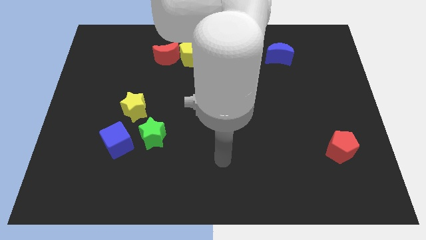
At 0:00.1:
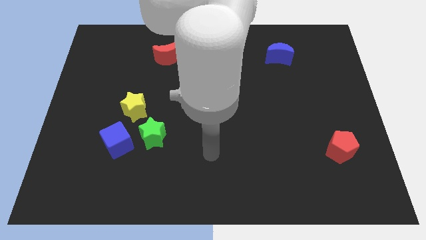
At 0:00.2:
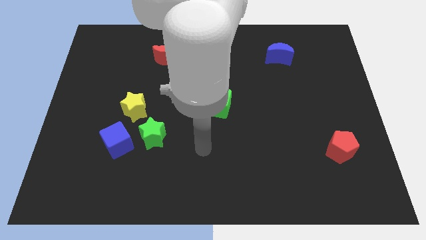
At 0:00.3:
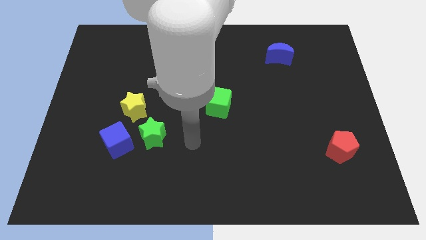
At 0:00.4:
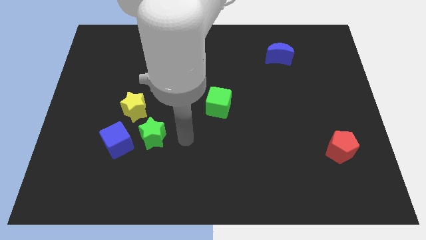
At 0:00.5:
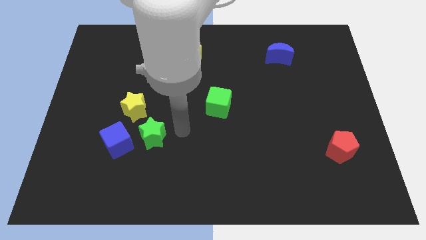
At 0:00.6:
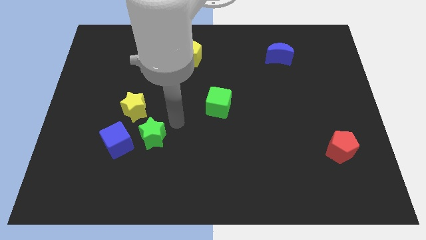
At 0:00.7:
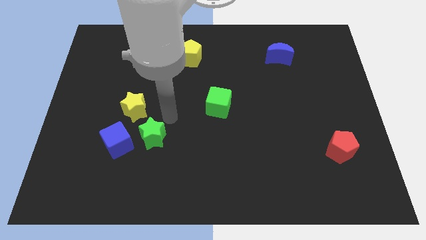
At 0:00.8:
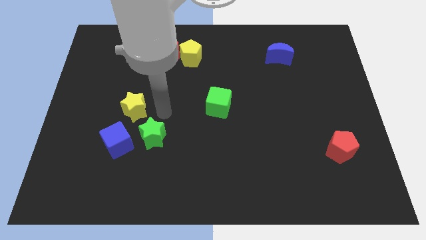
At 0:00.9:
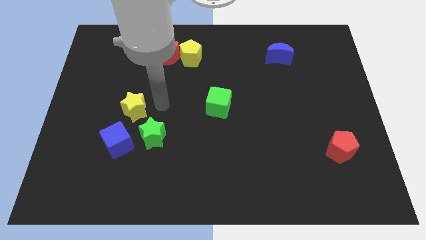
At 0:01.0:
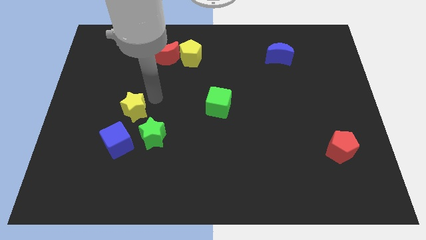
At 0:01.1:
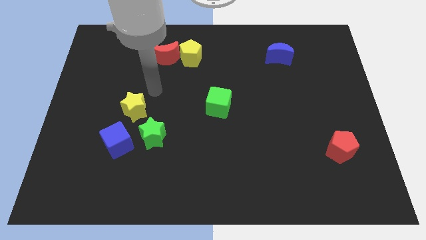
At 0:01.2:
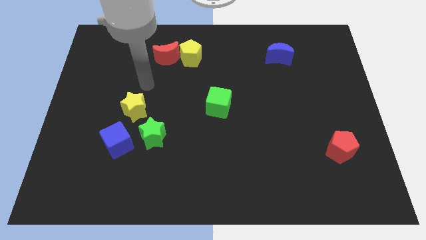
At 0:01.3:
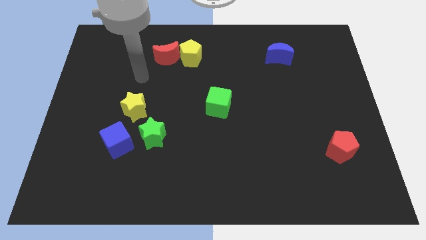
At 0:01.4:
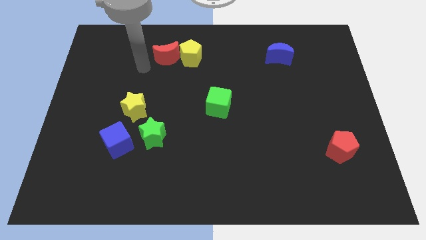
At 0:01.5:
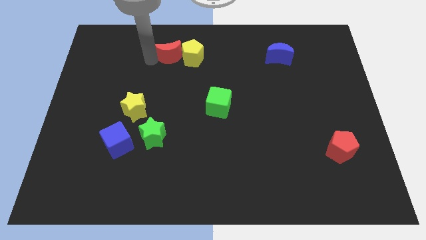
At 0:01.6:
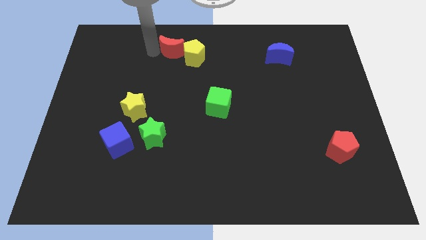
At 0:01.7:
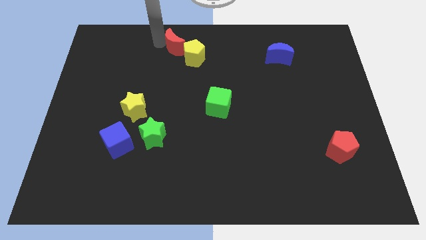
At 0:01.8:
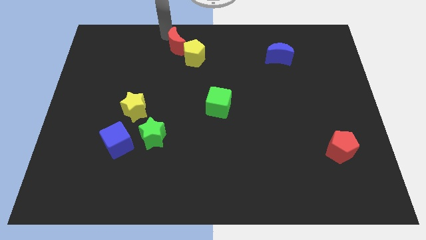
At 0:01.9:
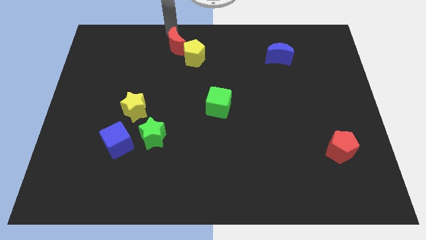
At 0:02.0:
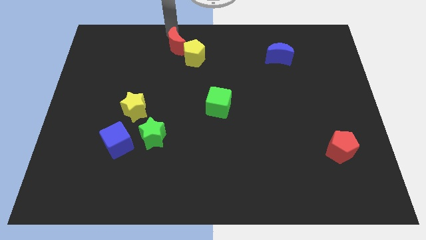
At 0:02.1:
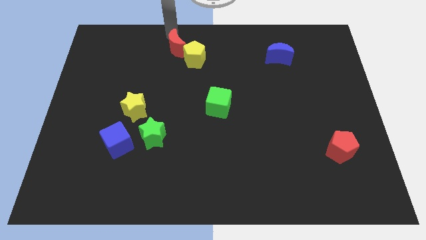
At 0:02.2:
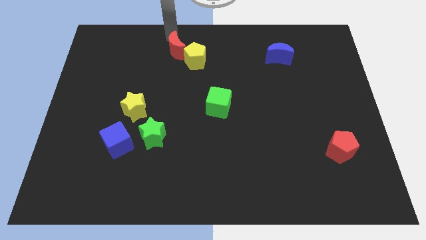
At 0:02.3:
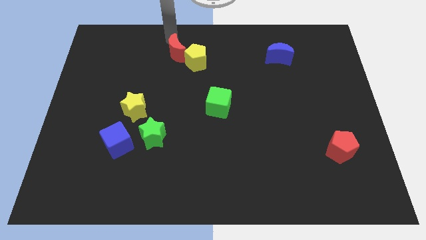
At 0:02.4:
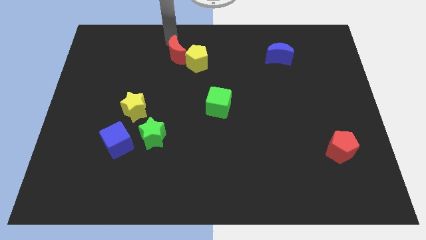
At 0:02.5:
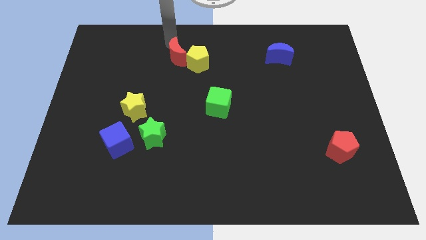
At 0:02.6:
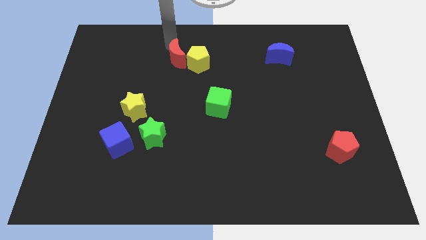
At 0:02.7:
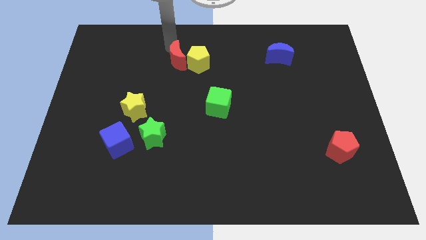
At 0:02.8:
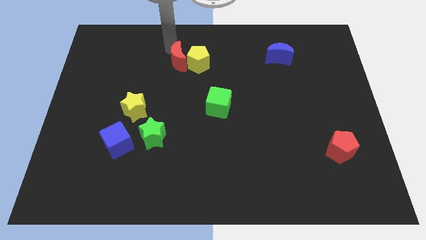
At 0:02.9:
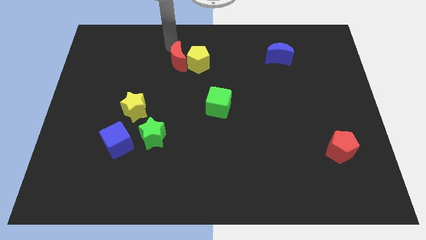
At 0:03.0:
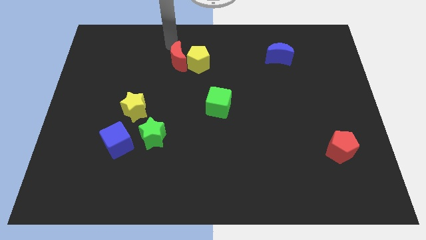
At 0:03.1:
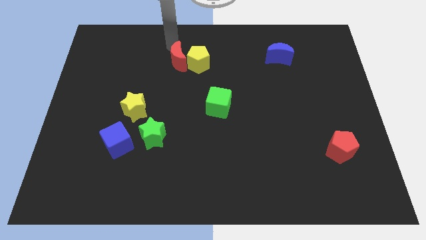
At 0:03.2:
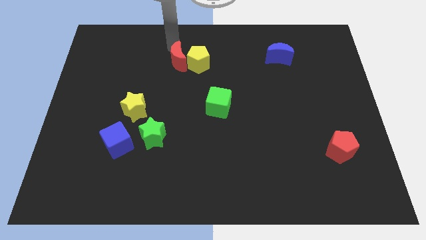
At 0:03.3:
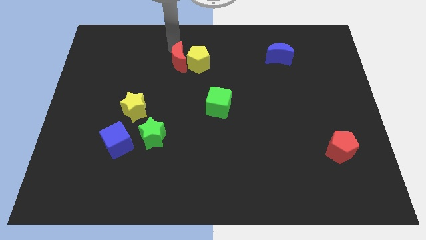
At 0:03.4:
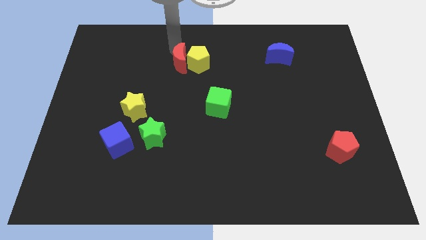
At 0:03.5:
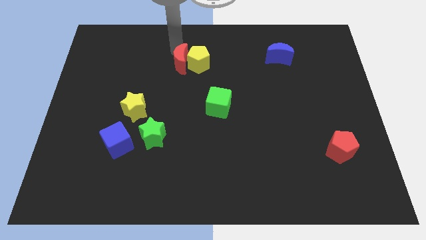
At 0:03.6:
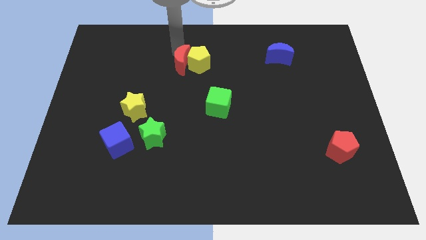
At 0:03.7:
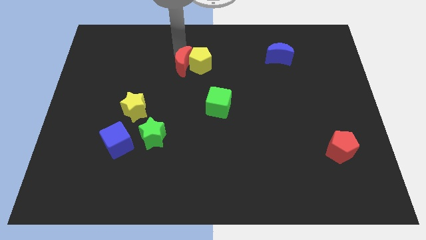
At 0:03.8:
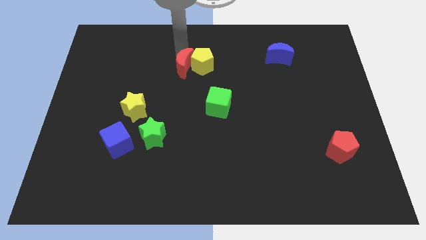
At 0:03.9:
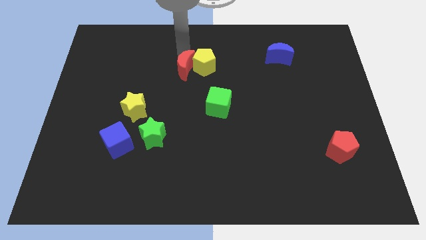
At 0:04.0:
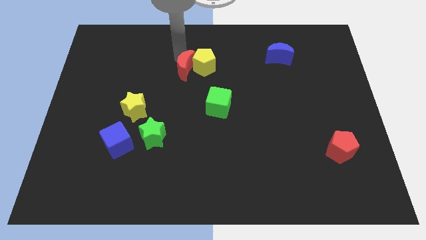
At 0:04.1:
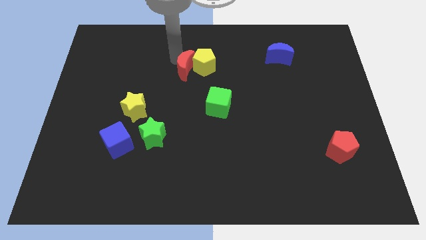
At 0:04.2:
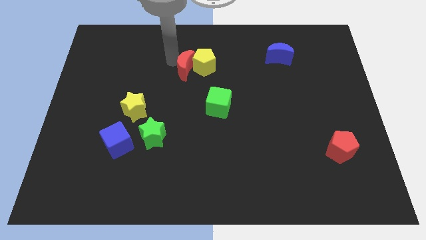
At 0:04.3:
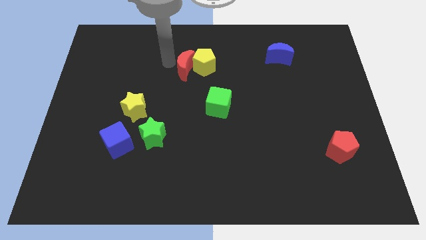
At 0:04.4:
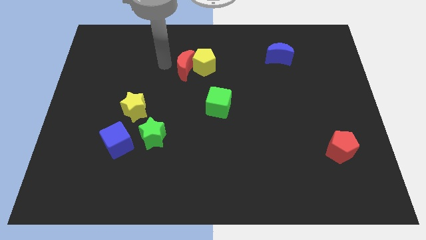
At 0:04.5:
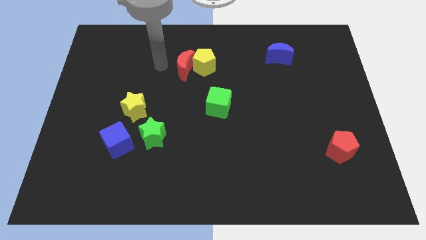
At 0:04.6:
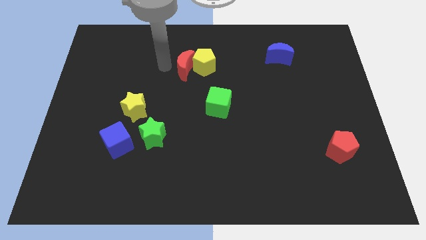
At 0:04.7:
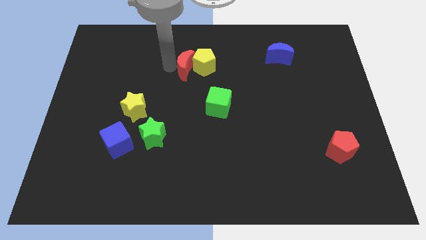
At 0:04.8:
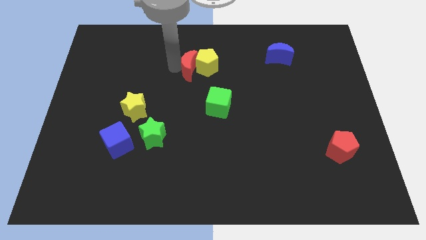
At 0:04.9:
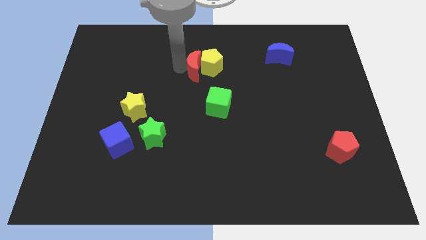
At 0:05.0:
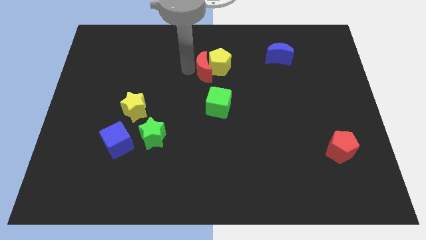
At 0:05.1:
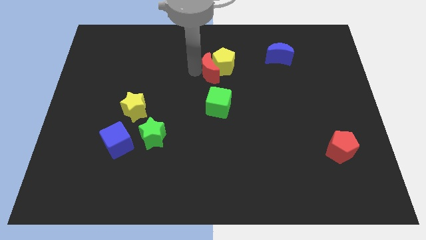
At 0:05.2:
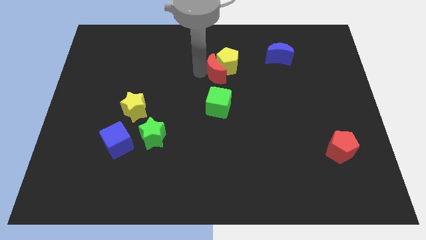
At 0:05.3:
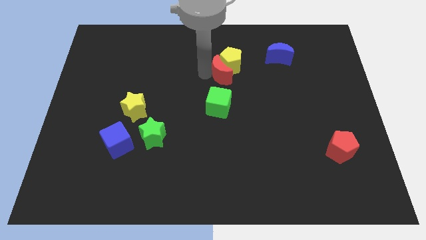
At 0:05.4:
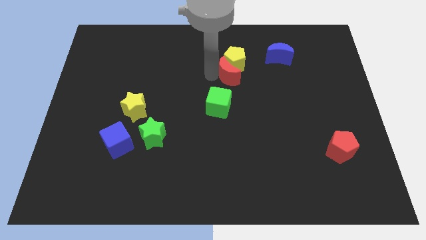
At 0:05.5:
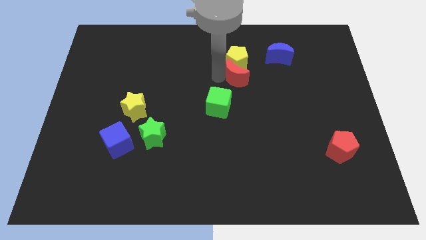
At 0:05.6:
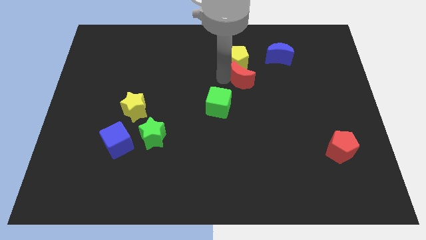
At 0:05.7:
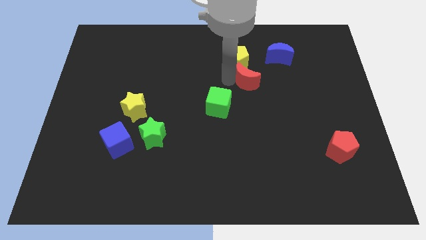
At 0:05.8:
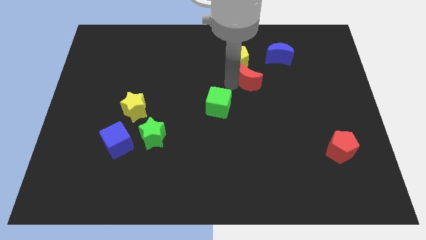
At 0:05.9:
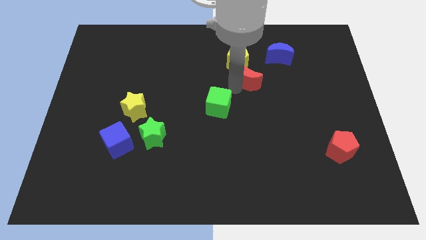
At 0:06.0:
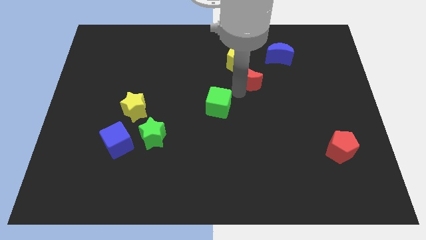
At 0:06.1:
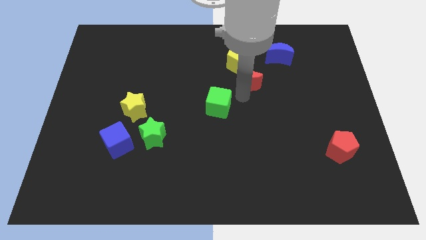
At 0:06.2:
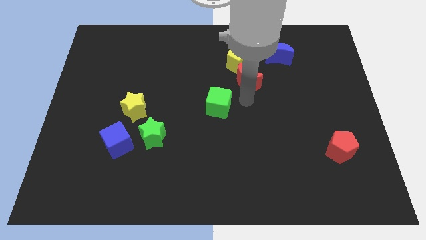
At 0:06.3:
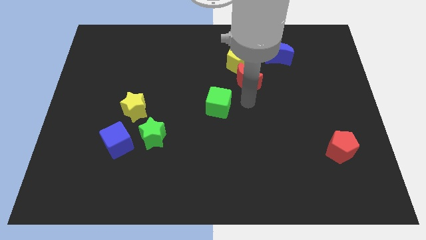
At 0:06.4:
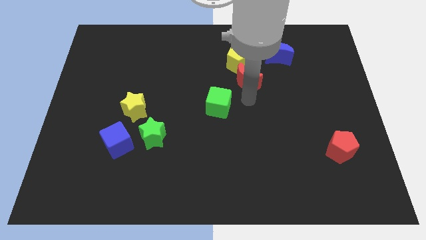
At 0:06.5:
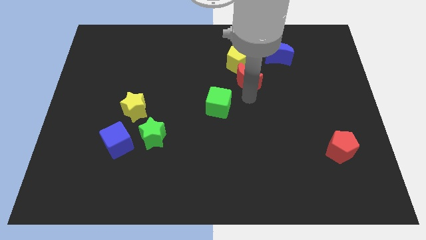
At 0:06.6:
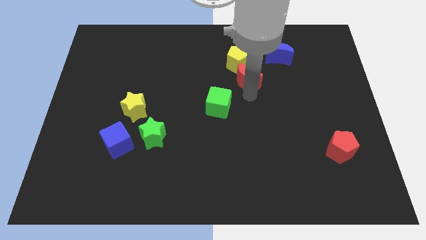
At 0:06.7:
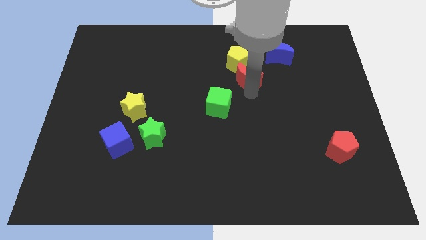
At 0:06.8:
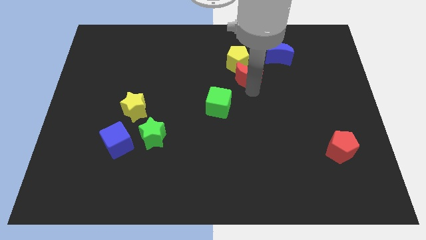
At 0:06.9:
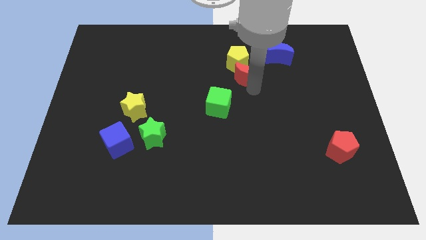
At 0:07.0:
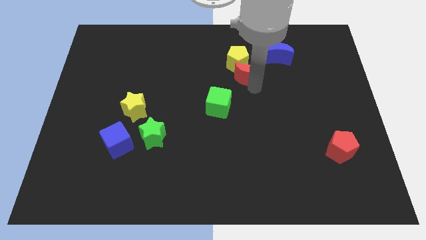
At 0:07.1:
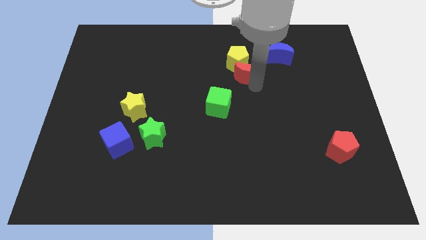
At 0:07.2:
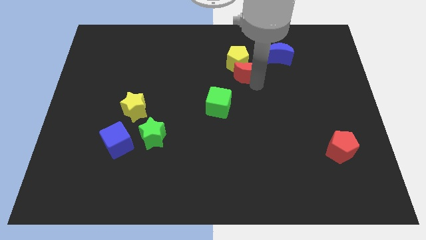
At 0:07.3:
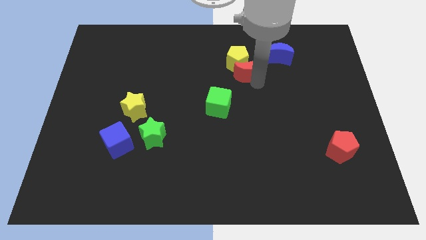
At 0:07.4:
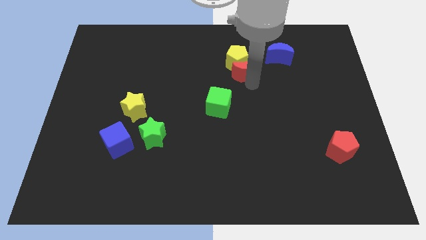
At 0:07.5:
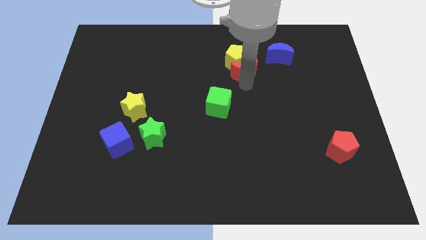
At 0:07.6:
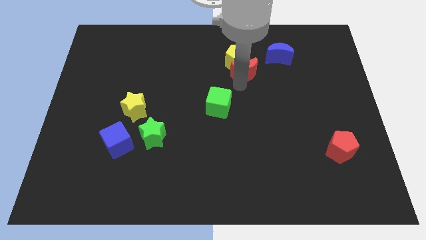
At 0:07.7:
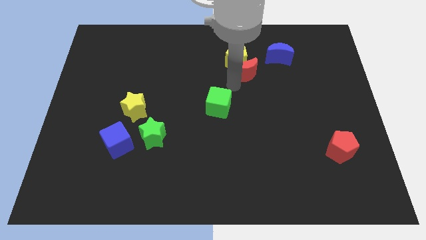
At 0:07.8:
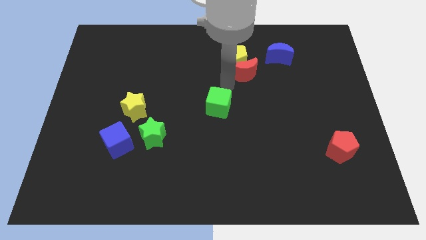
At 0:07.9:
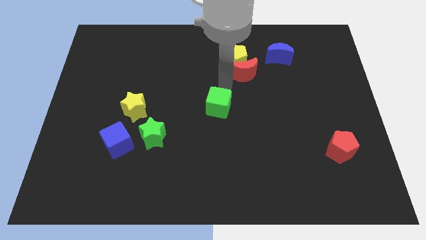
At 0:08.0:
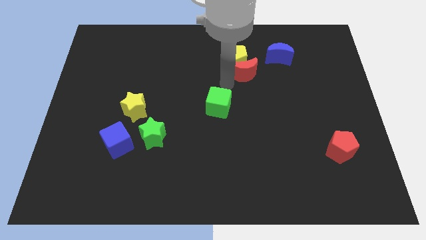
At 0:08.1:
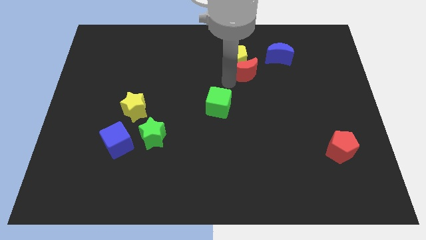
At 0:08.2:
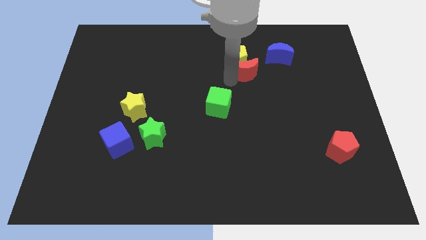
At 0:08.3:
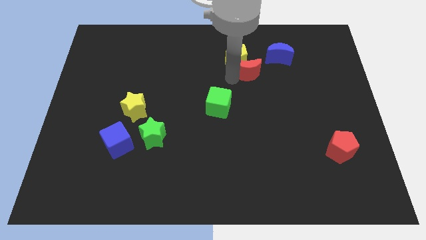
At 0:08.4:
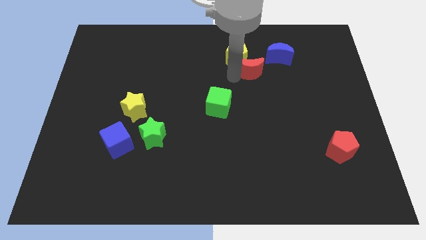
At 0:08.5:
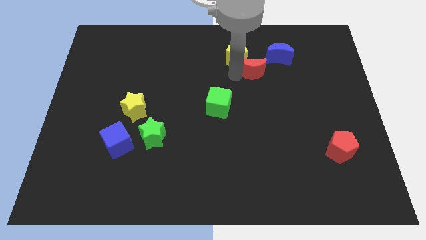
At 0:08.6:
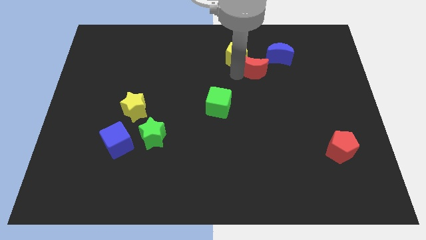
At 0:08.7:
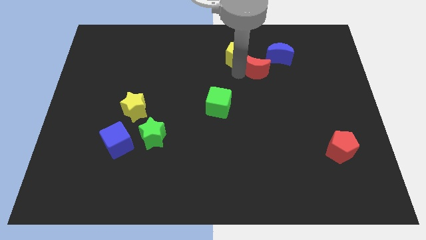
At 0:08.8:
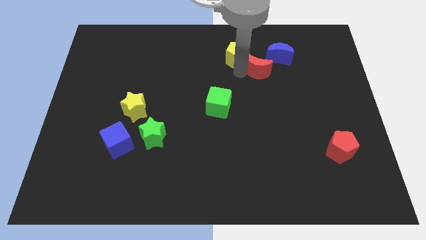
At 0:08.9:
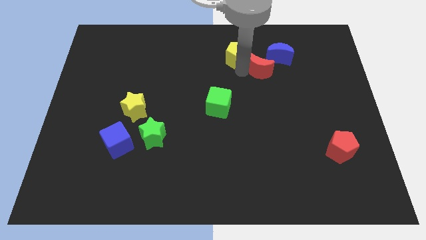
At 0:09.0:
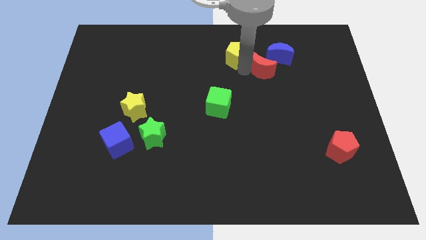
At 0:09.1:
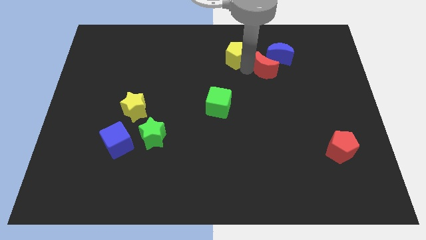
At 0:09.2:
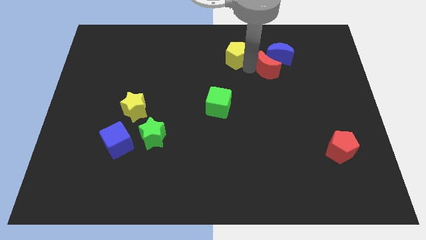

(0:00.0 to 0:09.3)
put the red moon towards the blue moon
